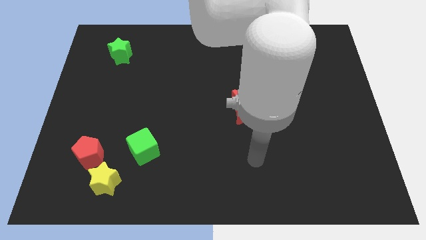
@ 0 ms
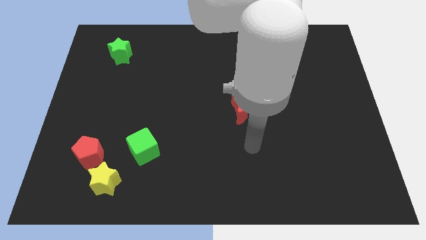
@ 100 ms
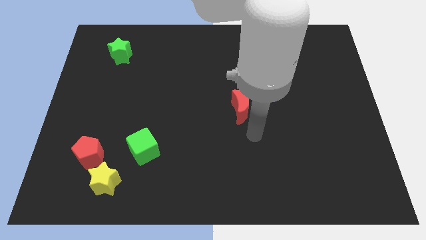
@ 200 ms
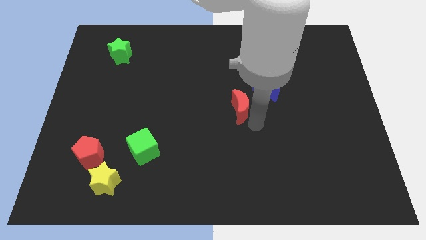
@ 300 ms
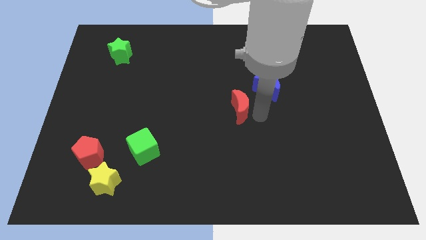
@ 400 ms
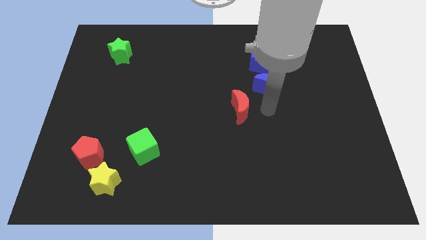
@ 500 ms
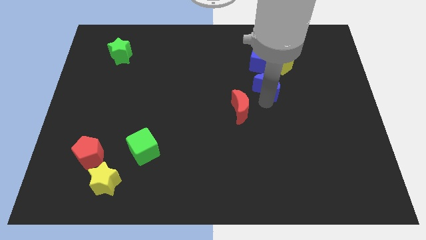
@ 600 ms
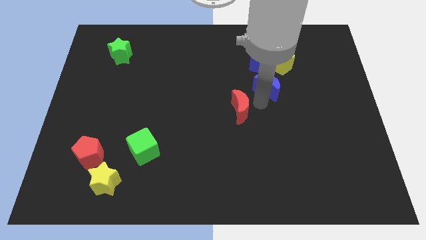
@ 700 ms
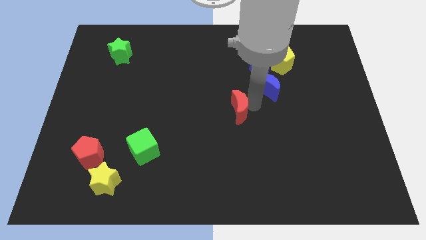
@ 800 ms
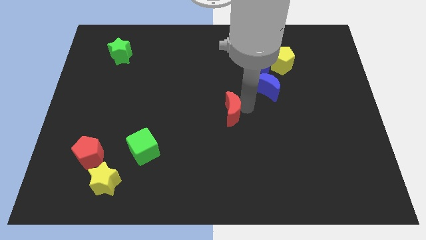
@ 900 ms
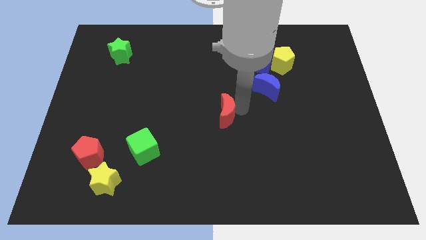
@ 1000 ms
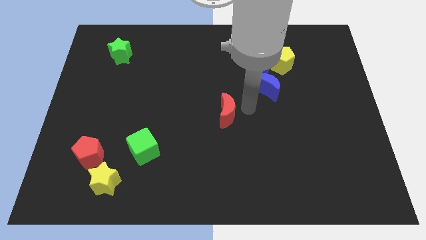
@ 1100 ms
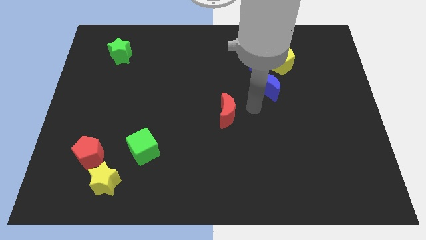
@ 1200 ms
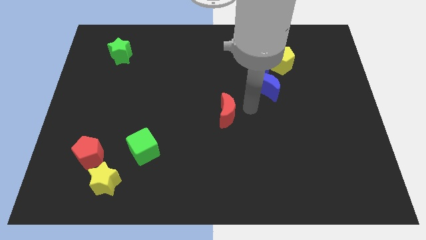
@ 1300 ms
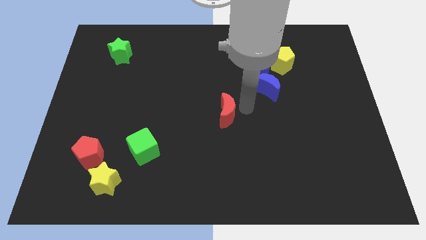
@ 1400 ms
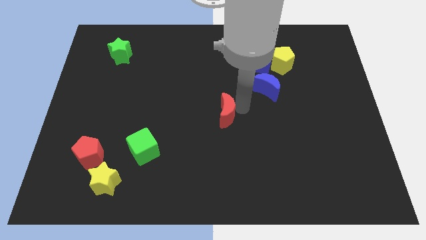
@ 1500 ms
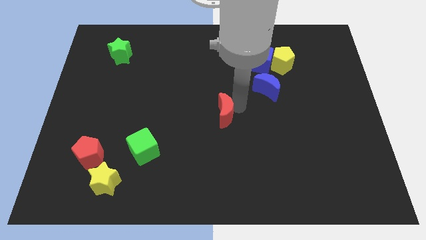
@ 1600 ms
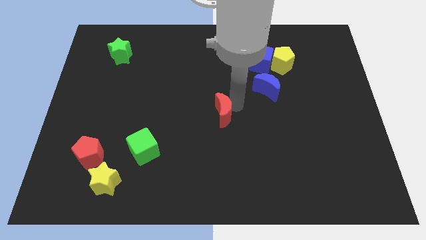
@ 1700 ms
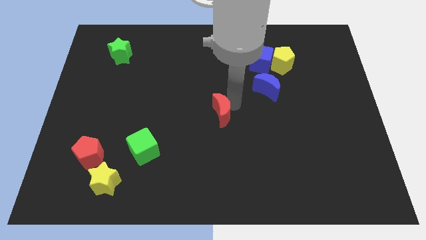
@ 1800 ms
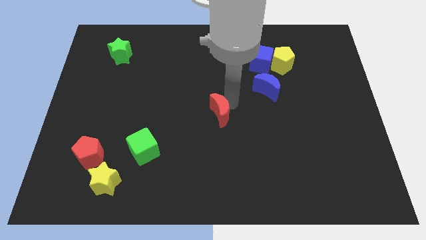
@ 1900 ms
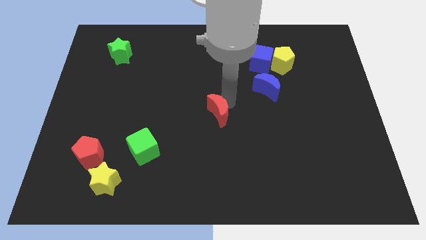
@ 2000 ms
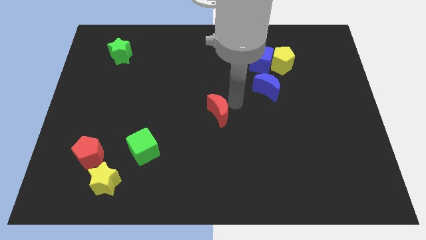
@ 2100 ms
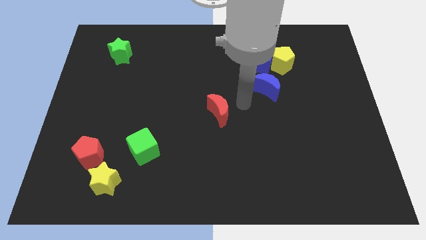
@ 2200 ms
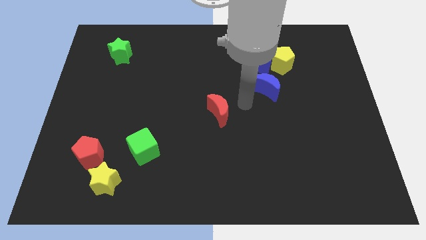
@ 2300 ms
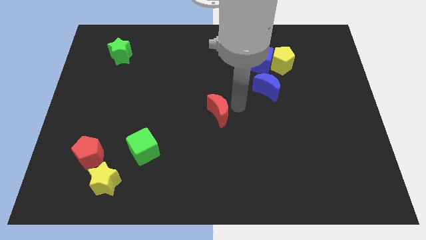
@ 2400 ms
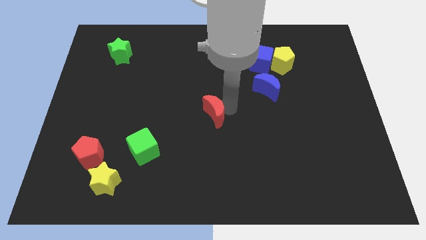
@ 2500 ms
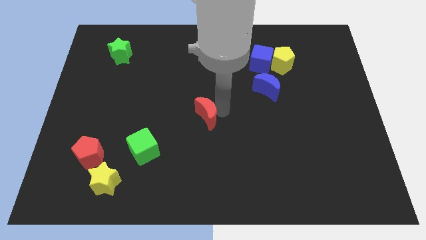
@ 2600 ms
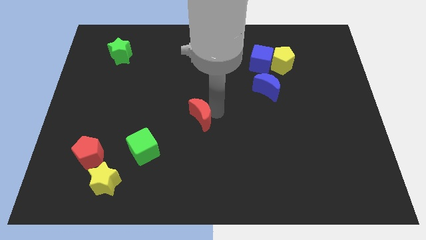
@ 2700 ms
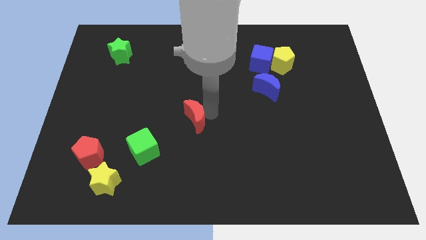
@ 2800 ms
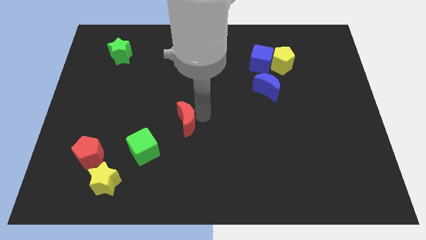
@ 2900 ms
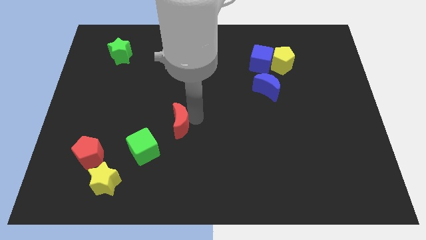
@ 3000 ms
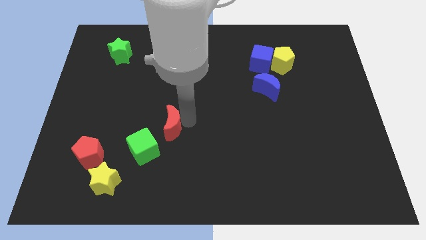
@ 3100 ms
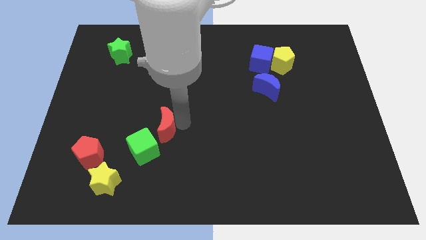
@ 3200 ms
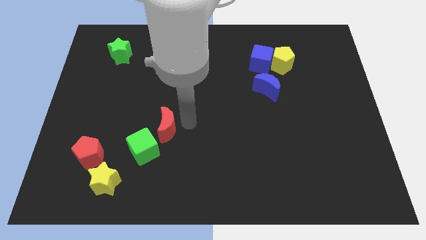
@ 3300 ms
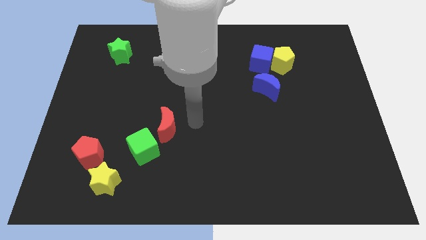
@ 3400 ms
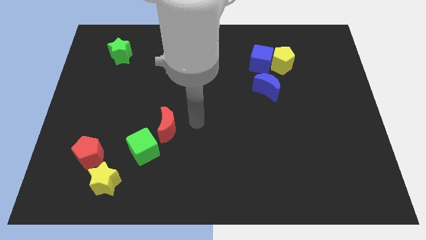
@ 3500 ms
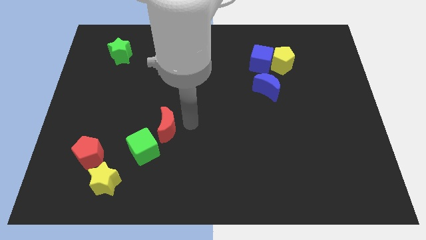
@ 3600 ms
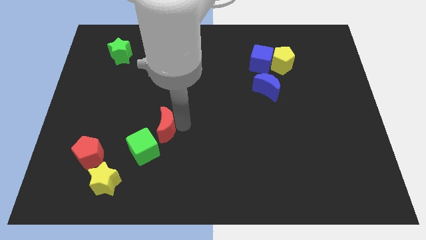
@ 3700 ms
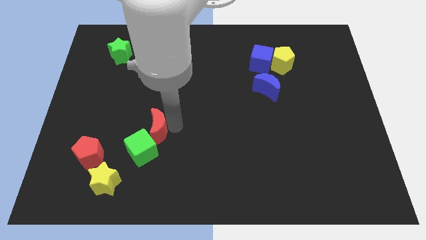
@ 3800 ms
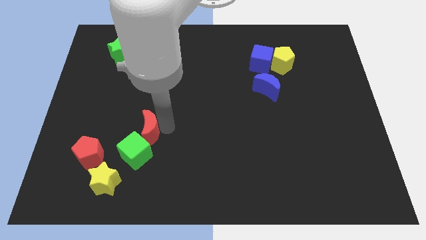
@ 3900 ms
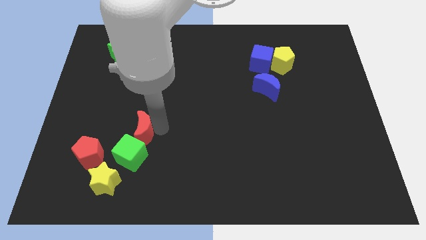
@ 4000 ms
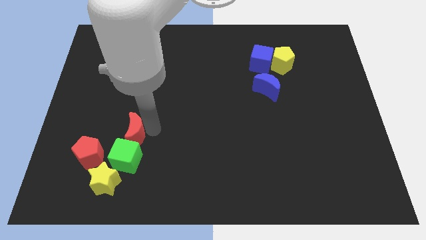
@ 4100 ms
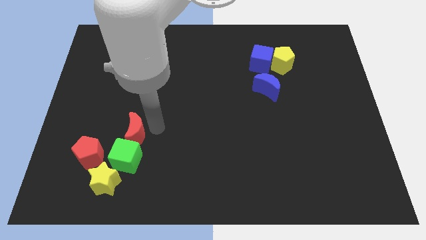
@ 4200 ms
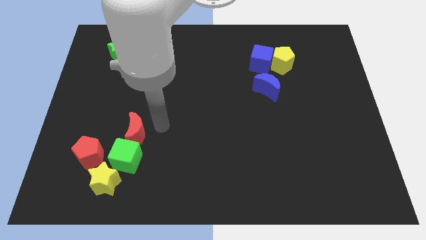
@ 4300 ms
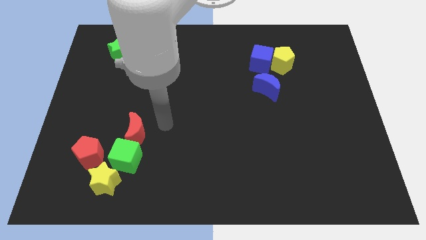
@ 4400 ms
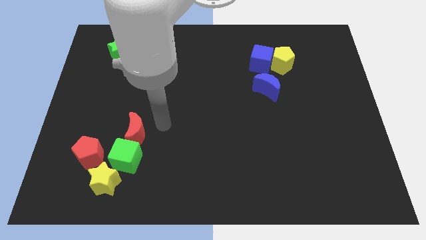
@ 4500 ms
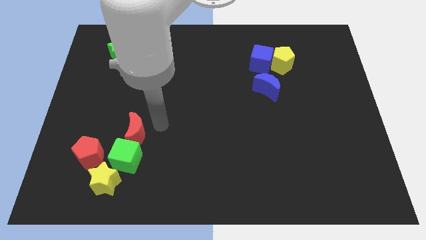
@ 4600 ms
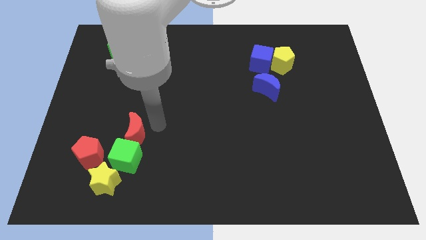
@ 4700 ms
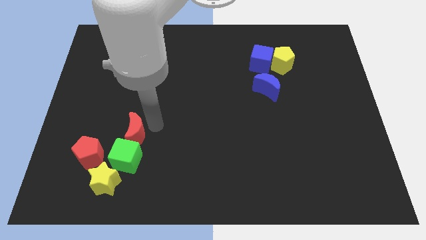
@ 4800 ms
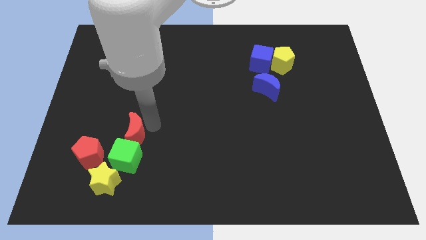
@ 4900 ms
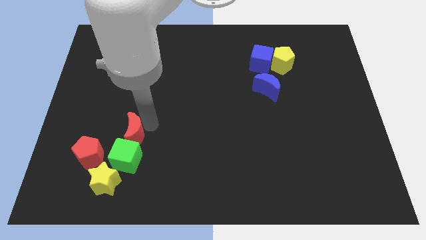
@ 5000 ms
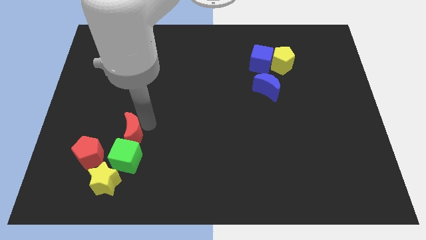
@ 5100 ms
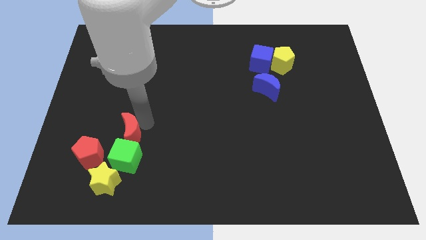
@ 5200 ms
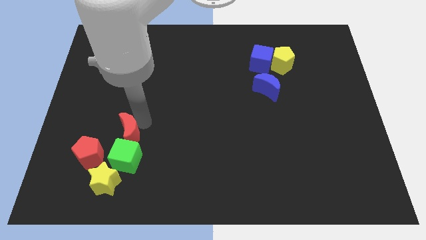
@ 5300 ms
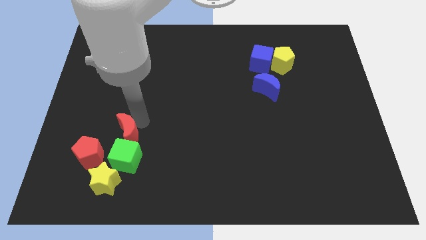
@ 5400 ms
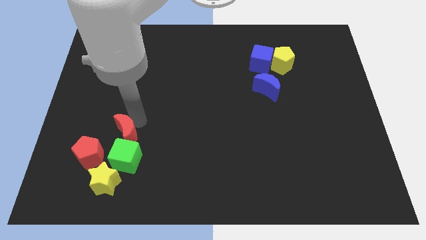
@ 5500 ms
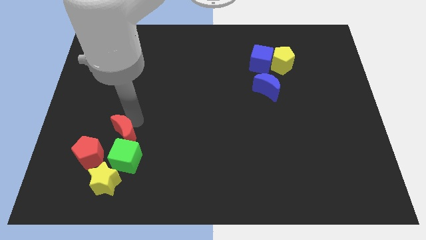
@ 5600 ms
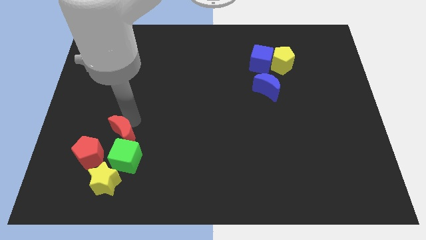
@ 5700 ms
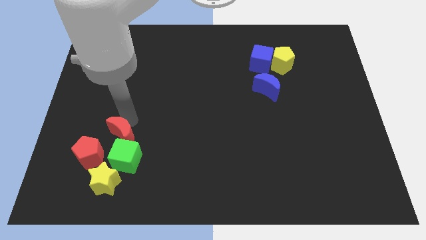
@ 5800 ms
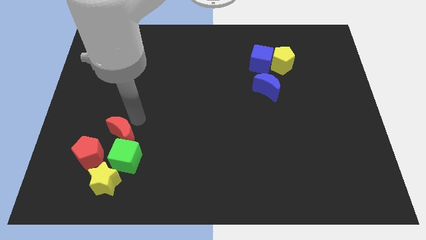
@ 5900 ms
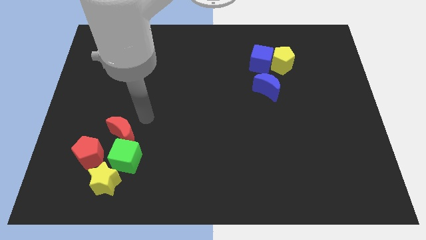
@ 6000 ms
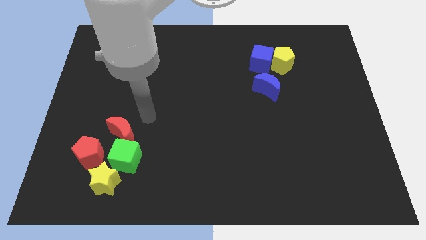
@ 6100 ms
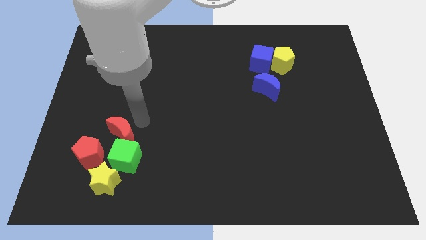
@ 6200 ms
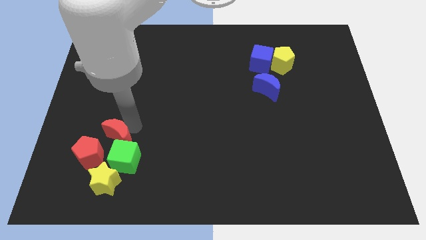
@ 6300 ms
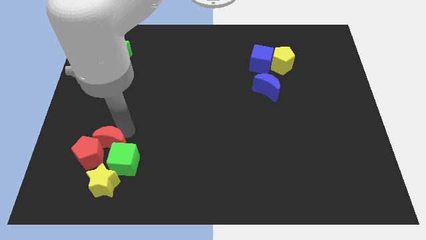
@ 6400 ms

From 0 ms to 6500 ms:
put the red moon to the red pentagon

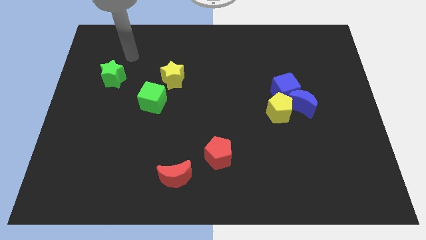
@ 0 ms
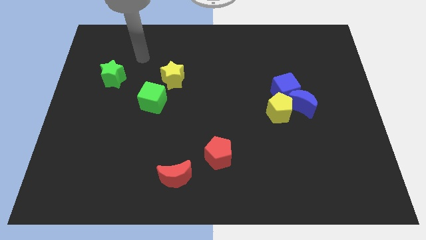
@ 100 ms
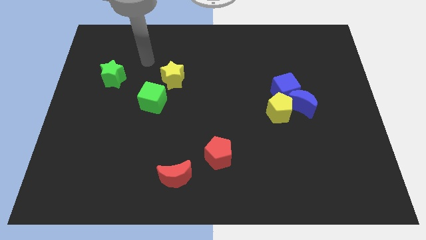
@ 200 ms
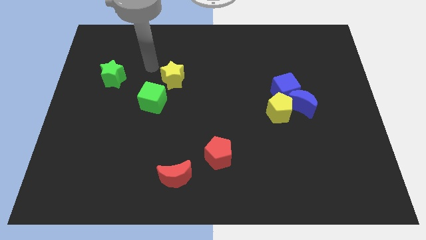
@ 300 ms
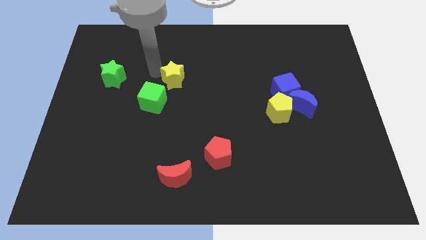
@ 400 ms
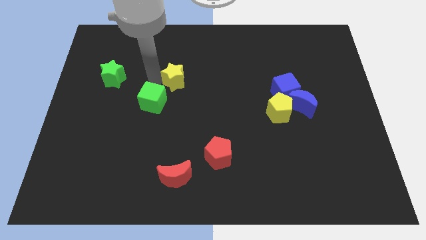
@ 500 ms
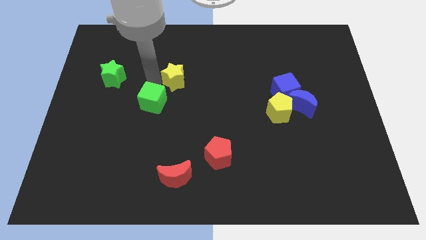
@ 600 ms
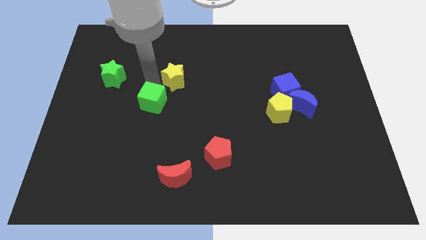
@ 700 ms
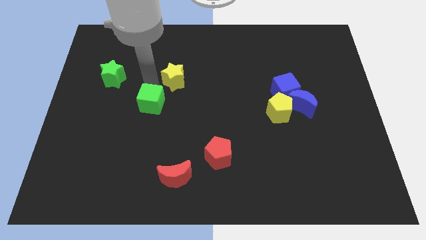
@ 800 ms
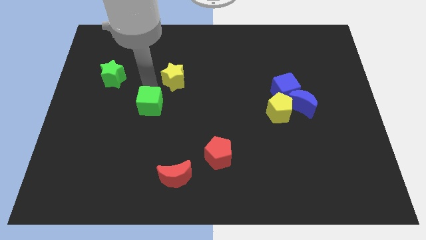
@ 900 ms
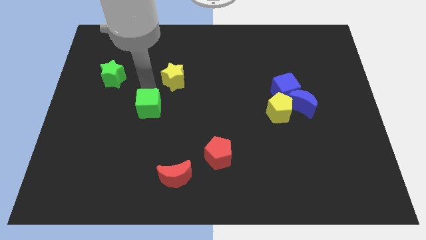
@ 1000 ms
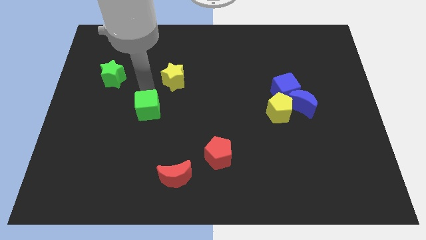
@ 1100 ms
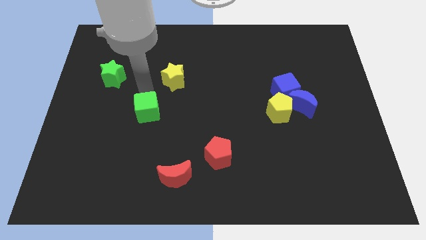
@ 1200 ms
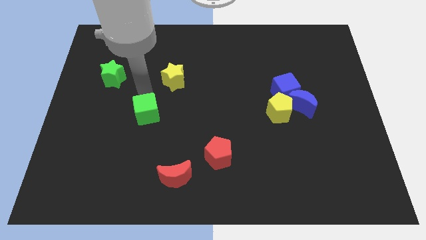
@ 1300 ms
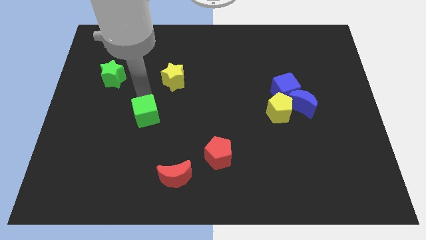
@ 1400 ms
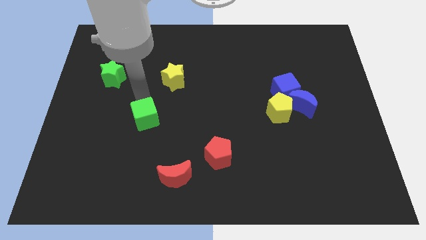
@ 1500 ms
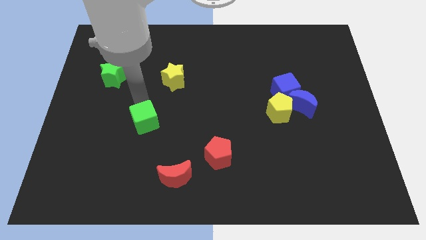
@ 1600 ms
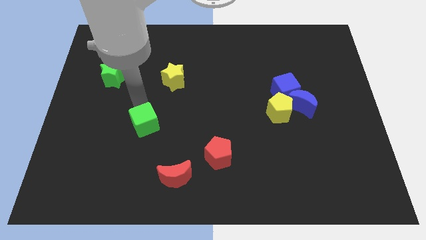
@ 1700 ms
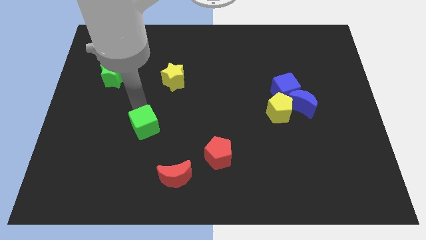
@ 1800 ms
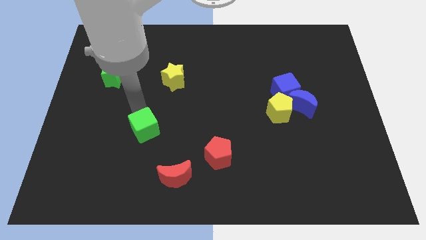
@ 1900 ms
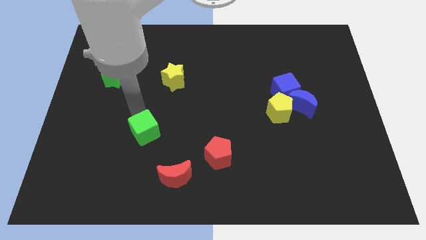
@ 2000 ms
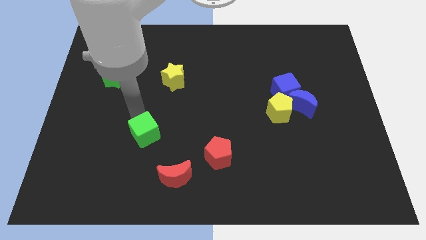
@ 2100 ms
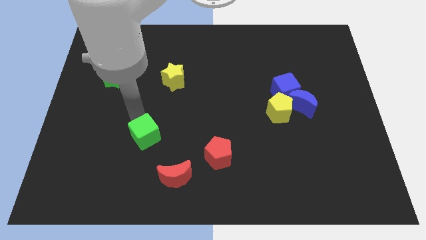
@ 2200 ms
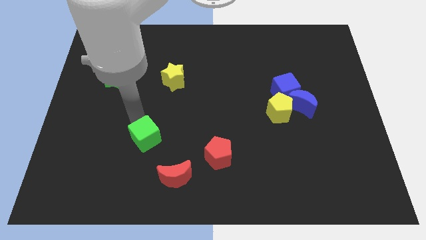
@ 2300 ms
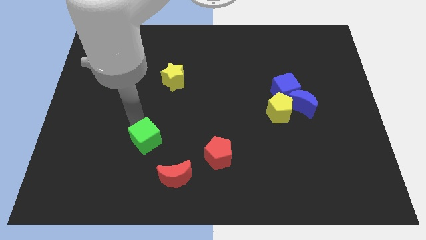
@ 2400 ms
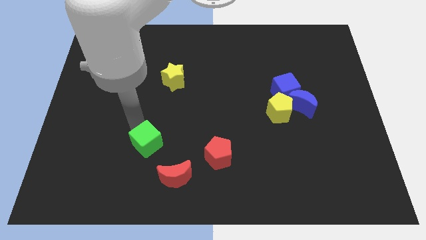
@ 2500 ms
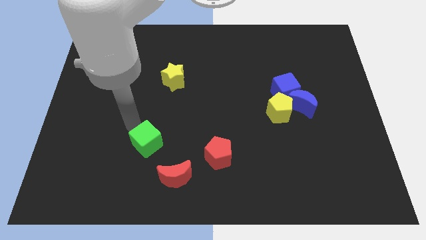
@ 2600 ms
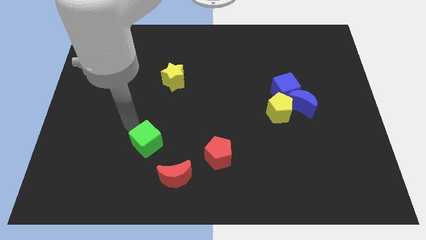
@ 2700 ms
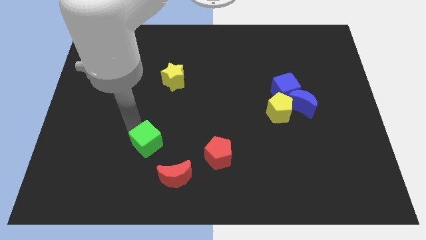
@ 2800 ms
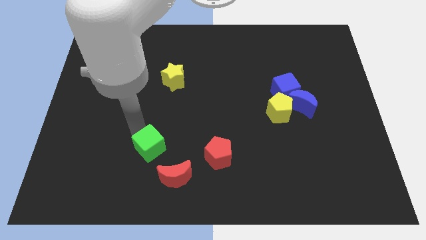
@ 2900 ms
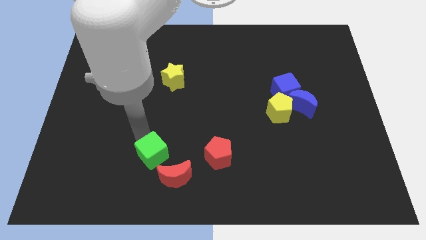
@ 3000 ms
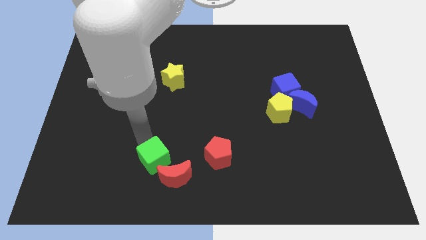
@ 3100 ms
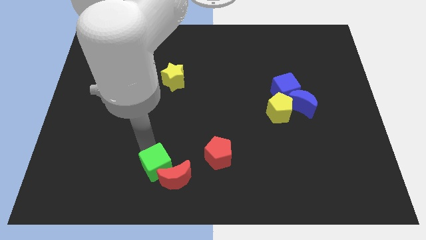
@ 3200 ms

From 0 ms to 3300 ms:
put the green cube next to the red moon
